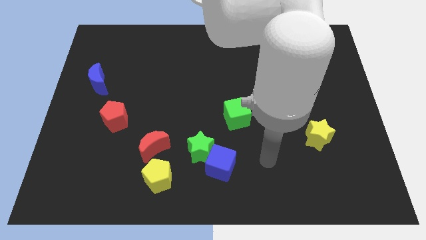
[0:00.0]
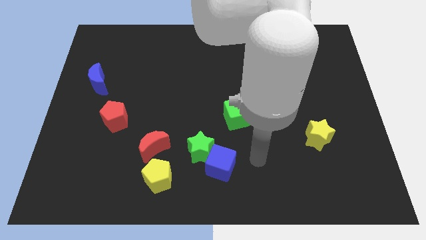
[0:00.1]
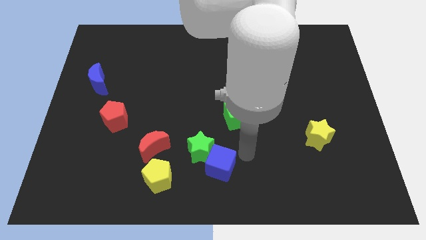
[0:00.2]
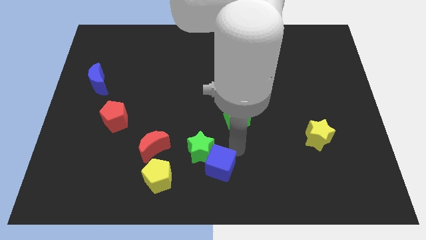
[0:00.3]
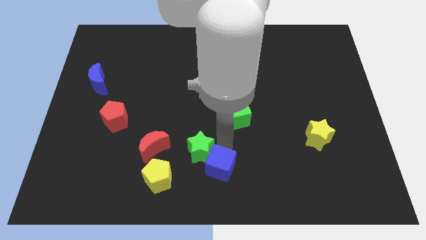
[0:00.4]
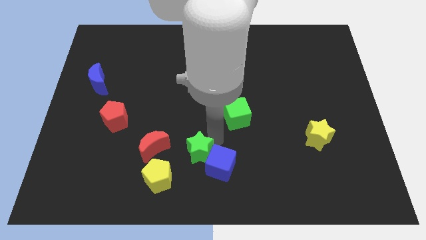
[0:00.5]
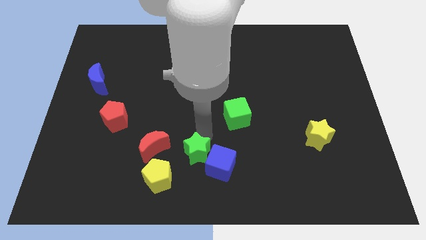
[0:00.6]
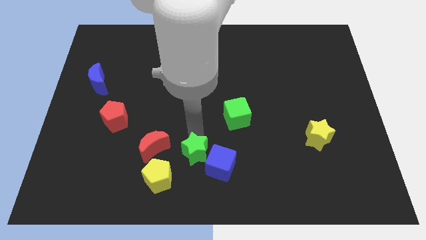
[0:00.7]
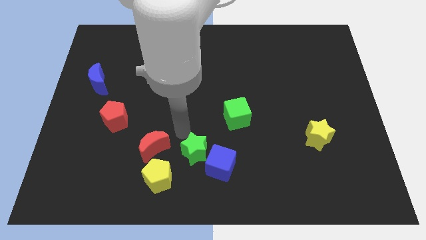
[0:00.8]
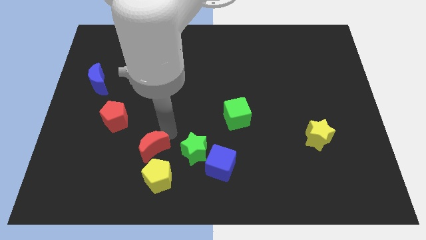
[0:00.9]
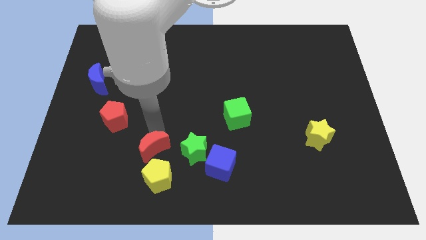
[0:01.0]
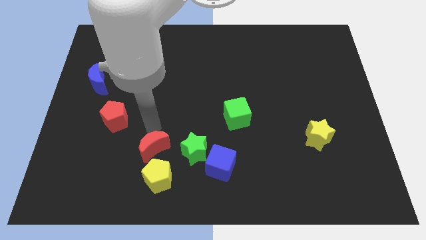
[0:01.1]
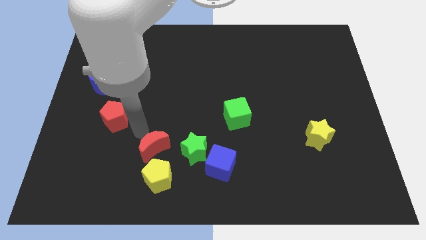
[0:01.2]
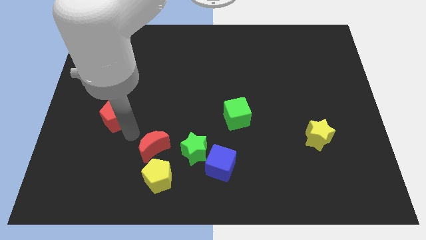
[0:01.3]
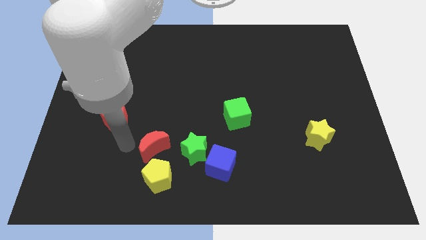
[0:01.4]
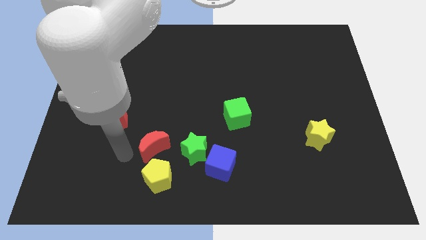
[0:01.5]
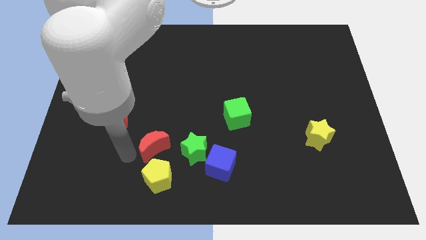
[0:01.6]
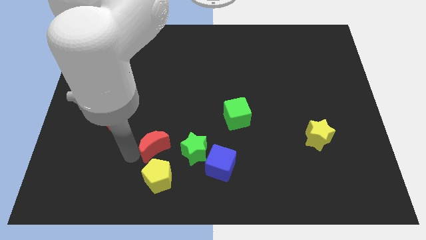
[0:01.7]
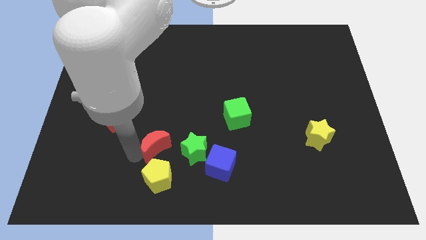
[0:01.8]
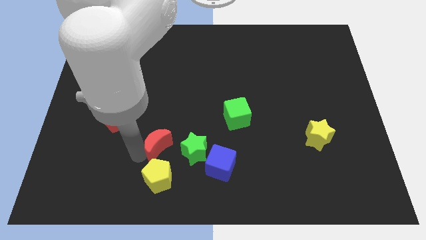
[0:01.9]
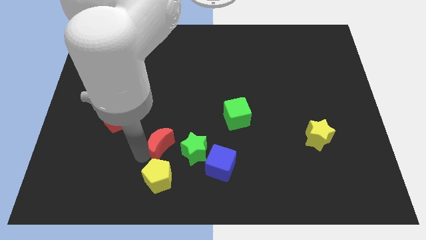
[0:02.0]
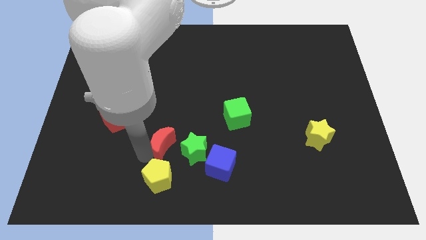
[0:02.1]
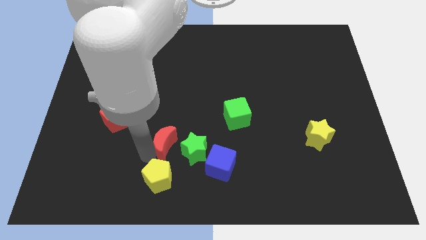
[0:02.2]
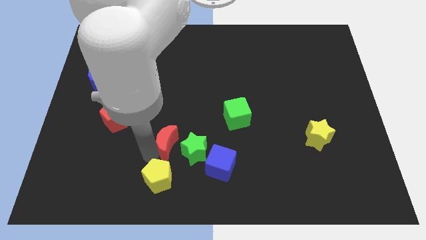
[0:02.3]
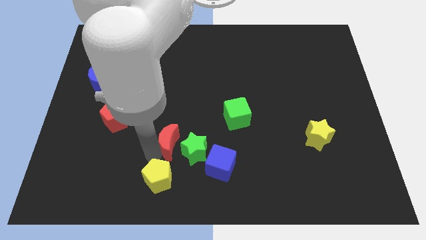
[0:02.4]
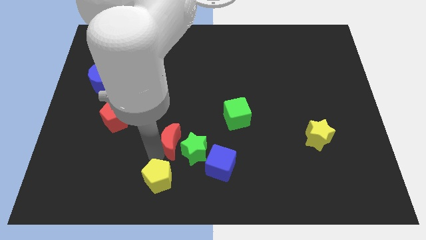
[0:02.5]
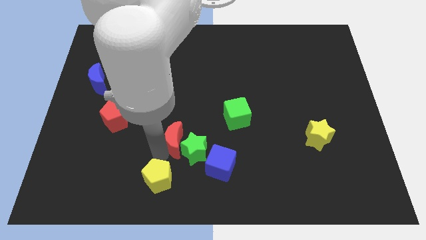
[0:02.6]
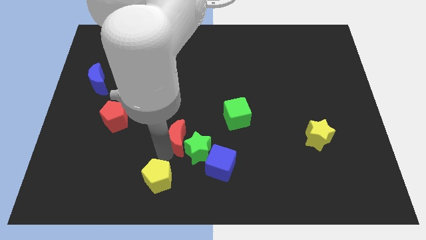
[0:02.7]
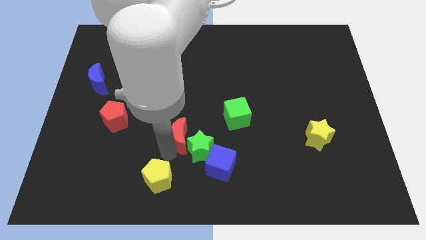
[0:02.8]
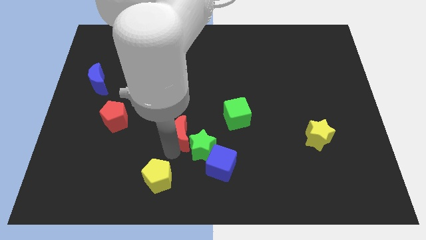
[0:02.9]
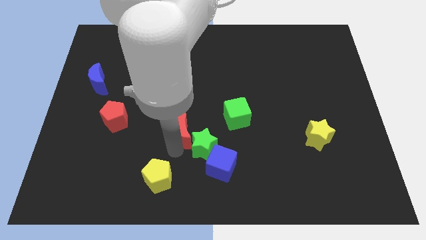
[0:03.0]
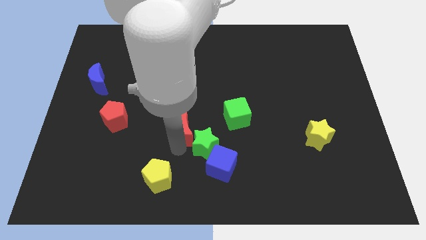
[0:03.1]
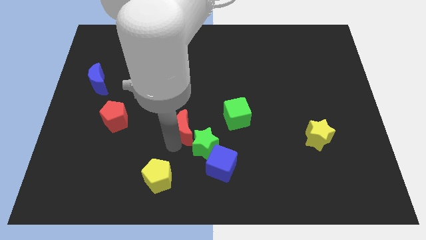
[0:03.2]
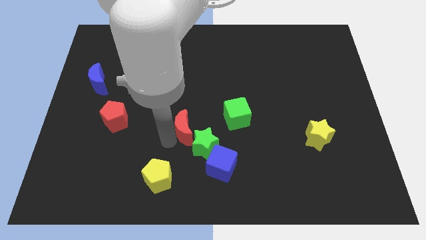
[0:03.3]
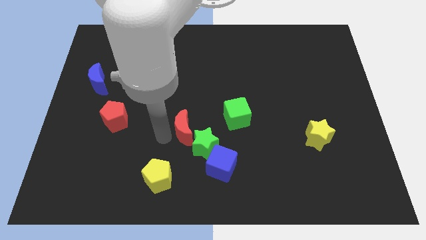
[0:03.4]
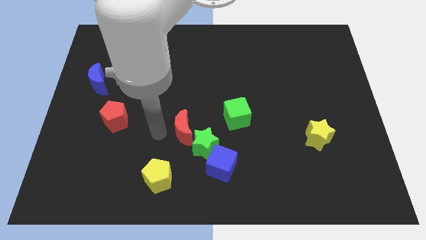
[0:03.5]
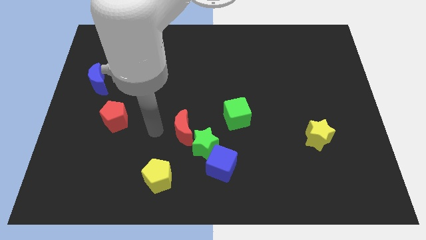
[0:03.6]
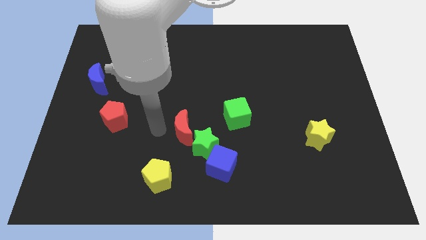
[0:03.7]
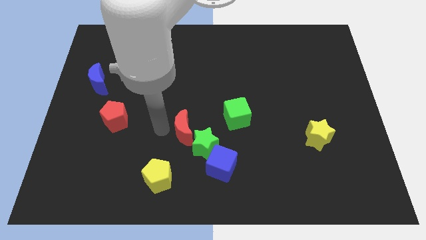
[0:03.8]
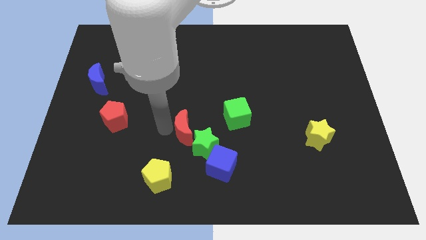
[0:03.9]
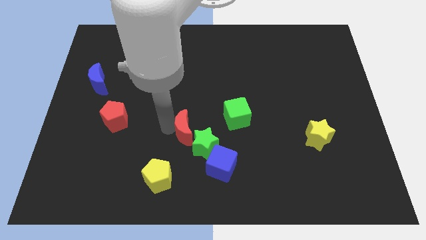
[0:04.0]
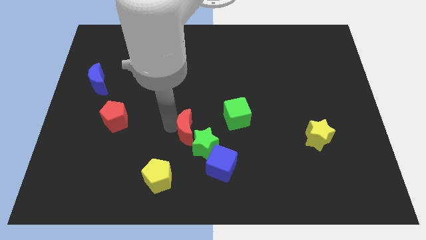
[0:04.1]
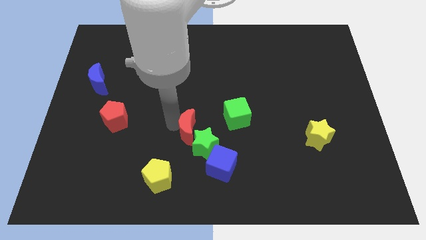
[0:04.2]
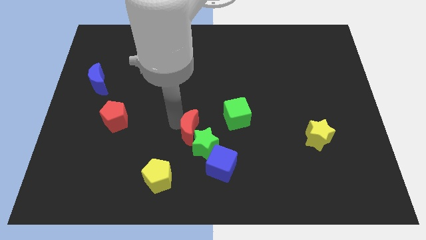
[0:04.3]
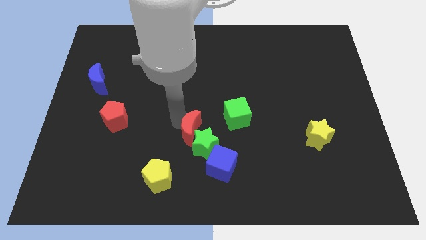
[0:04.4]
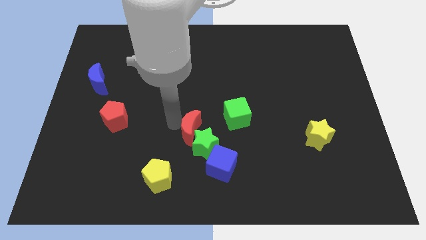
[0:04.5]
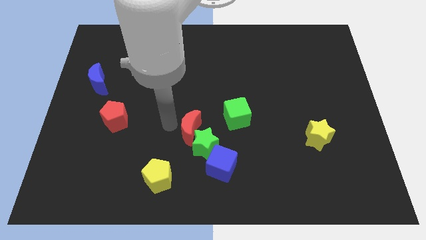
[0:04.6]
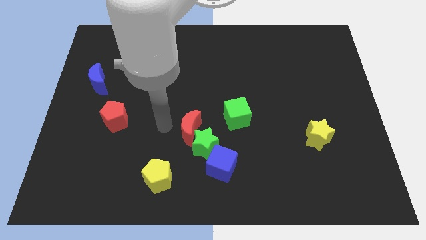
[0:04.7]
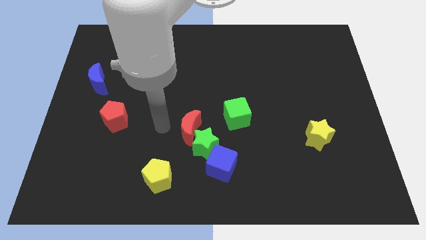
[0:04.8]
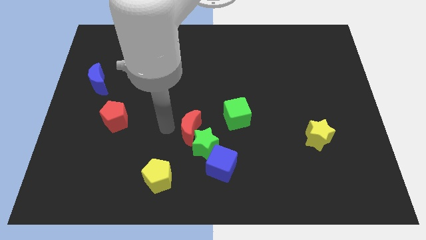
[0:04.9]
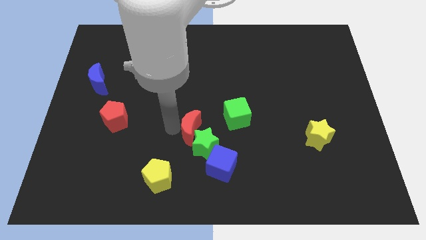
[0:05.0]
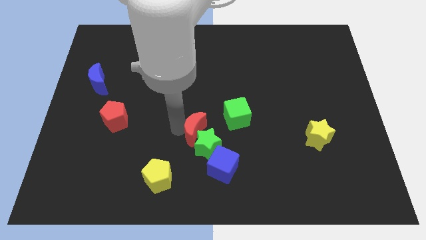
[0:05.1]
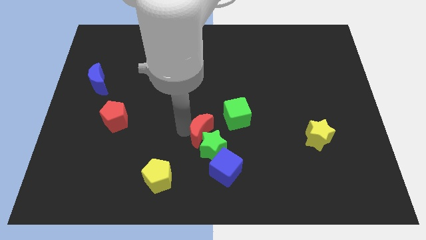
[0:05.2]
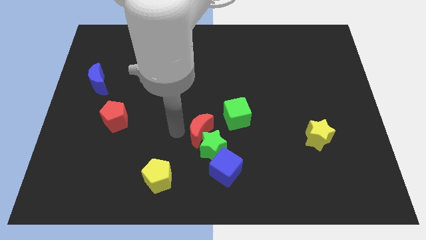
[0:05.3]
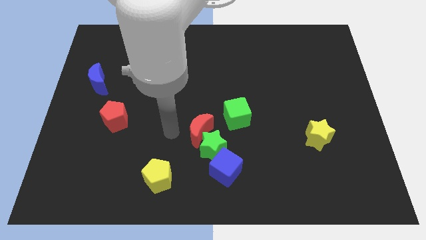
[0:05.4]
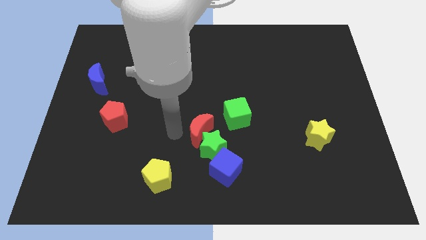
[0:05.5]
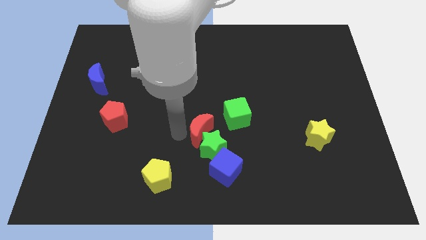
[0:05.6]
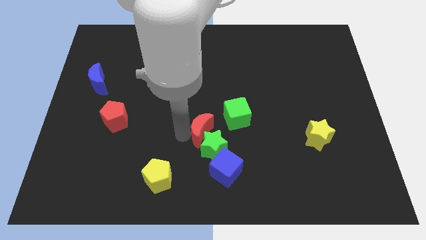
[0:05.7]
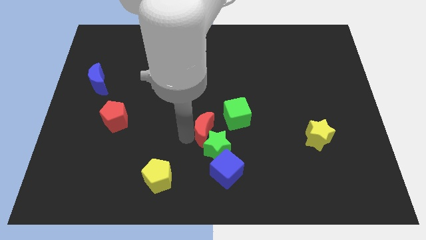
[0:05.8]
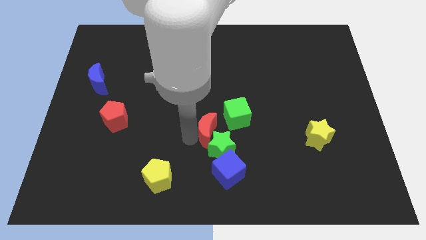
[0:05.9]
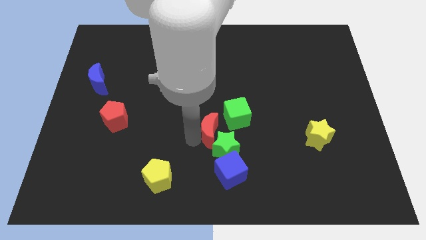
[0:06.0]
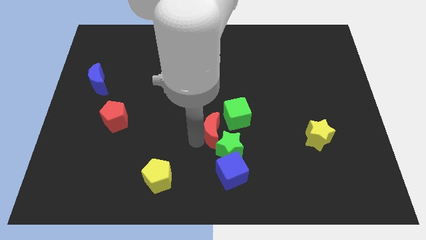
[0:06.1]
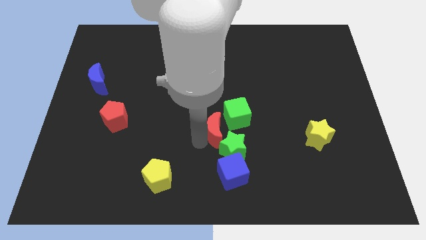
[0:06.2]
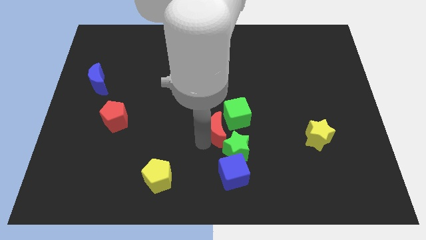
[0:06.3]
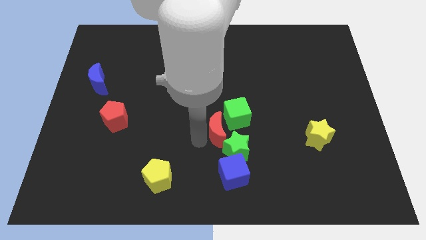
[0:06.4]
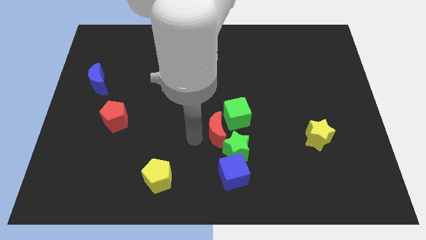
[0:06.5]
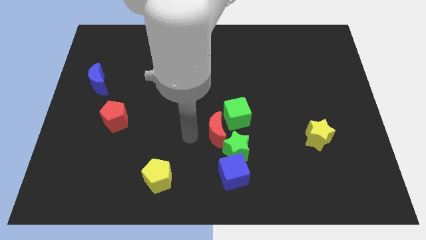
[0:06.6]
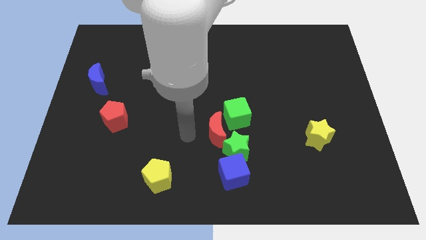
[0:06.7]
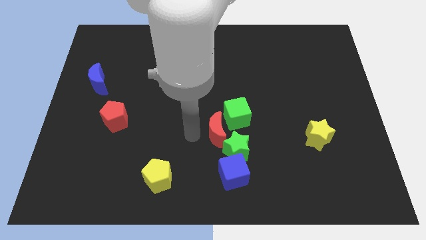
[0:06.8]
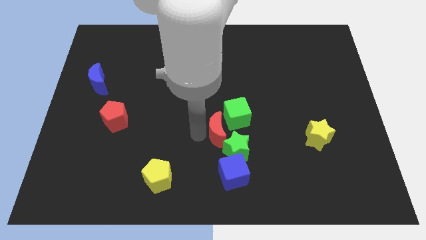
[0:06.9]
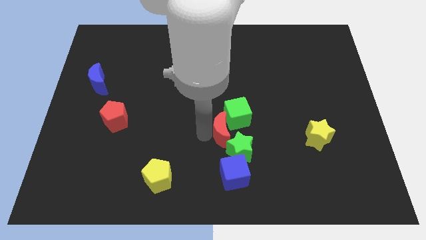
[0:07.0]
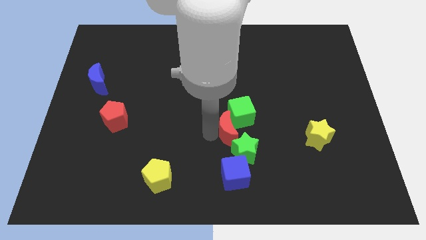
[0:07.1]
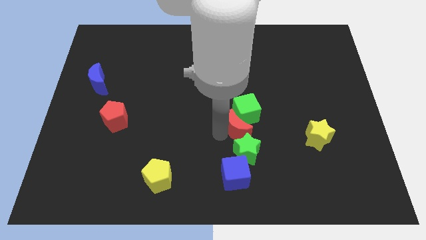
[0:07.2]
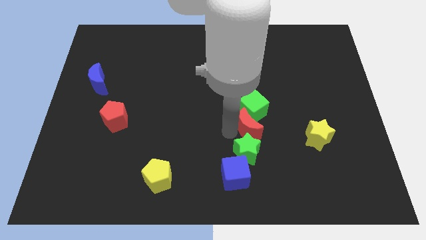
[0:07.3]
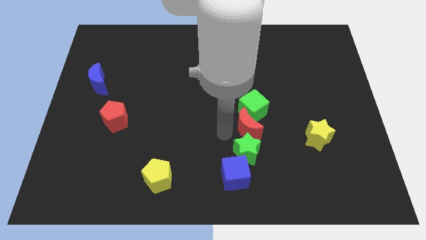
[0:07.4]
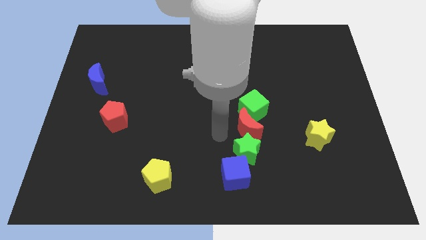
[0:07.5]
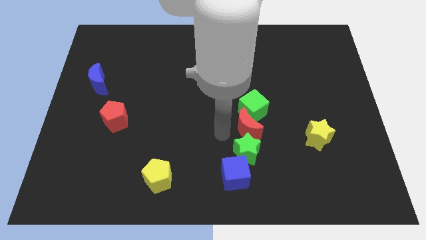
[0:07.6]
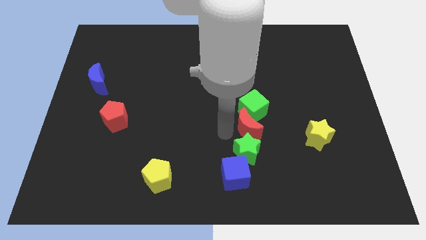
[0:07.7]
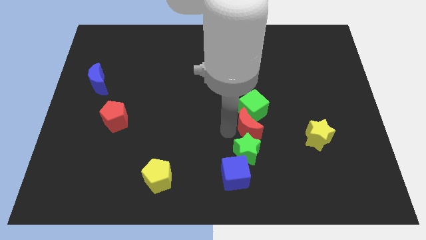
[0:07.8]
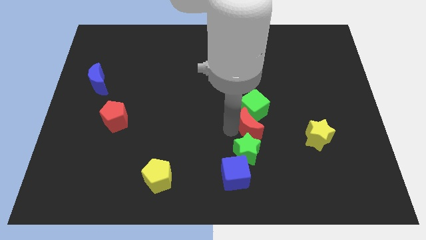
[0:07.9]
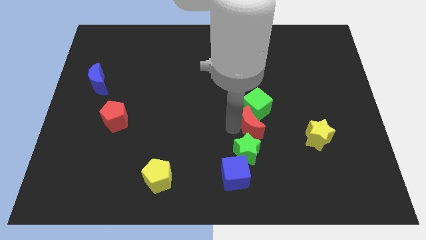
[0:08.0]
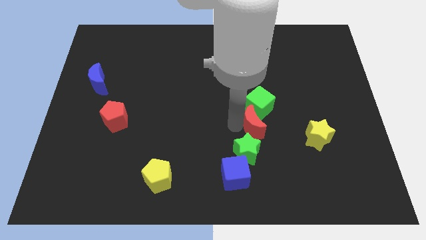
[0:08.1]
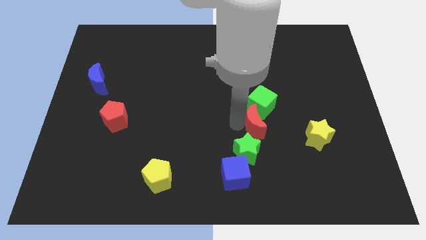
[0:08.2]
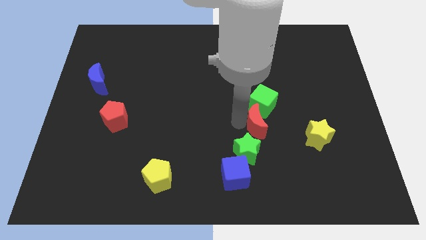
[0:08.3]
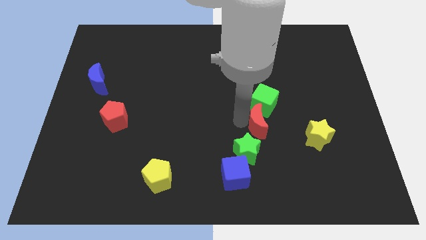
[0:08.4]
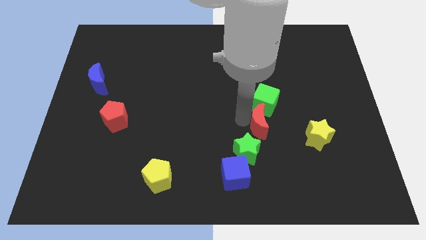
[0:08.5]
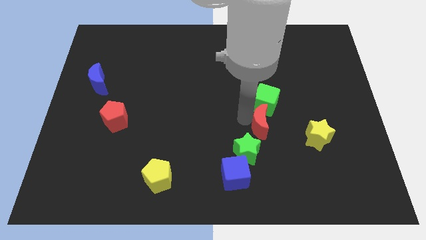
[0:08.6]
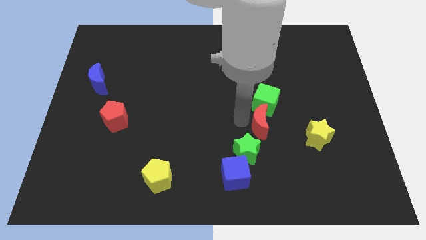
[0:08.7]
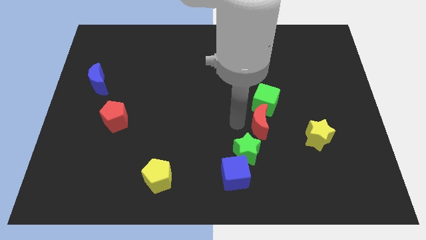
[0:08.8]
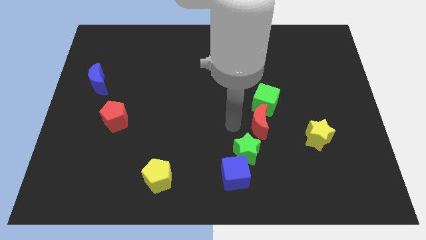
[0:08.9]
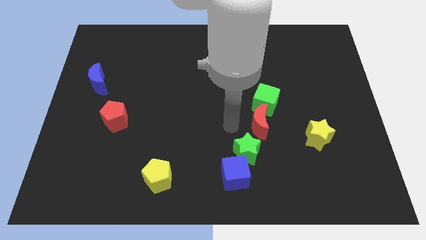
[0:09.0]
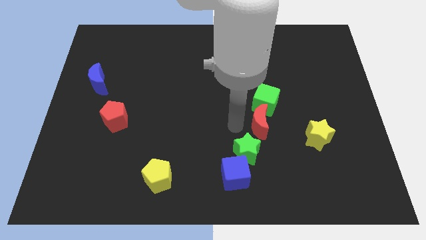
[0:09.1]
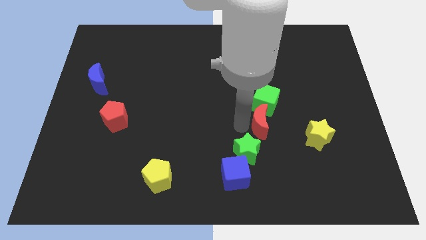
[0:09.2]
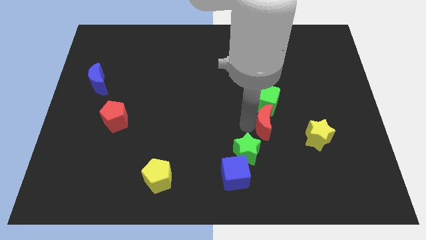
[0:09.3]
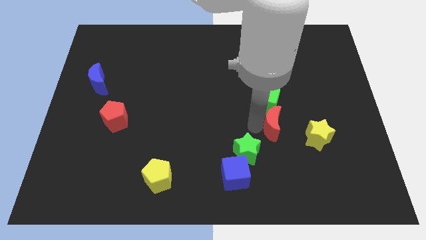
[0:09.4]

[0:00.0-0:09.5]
move the red moon to the top left side of the yellow star
